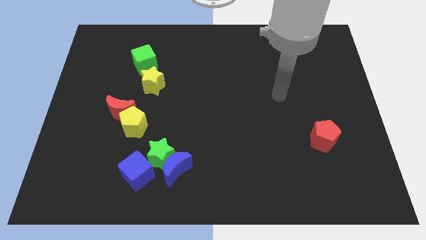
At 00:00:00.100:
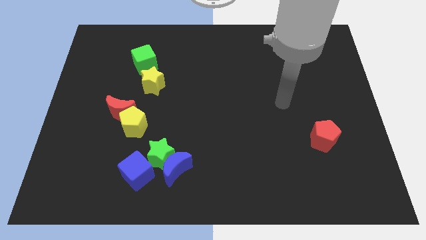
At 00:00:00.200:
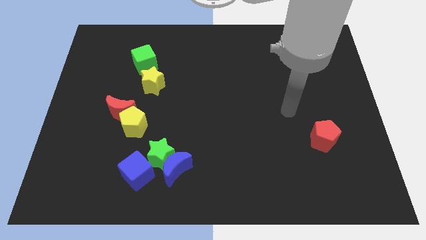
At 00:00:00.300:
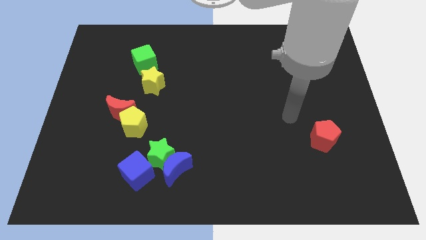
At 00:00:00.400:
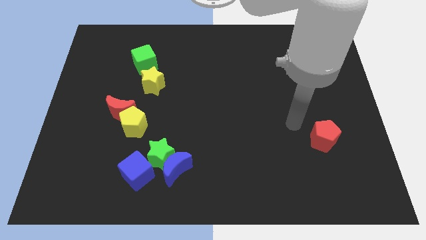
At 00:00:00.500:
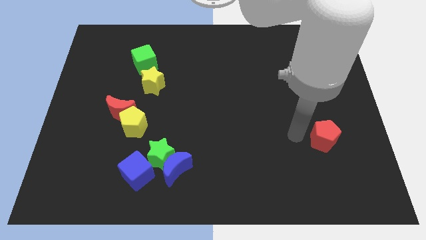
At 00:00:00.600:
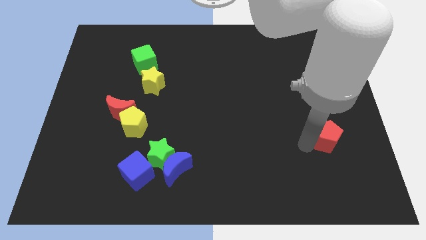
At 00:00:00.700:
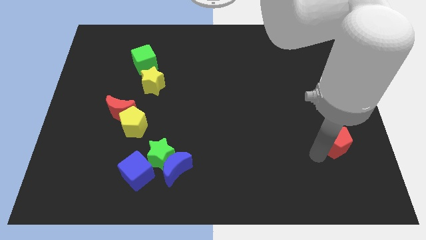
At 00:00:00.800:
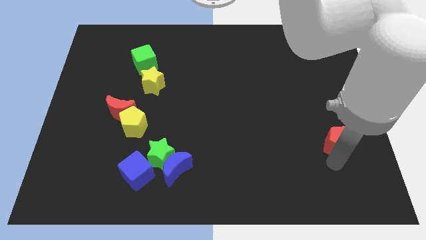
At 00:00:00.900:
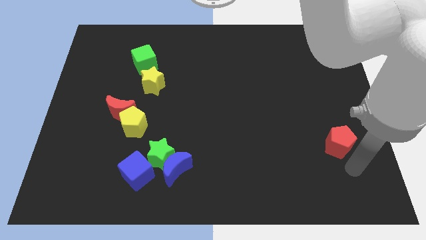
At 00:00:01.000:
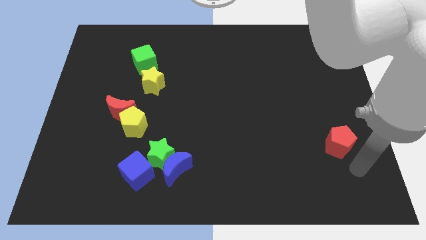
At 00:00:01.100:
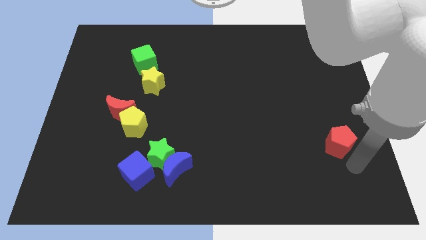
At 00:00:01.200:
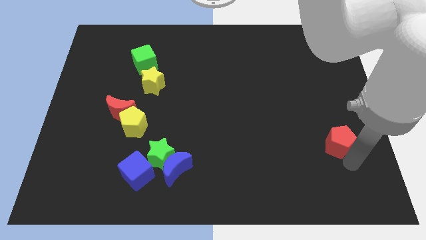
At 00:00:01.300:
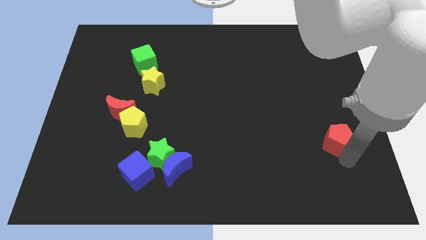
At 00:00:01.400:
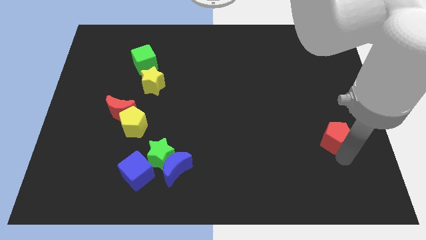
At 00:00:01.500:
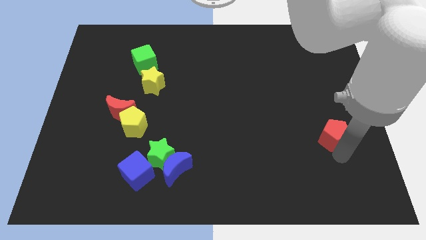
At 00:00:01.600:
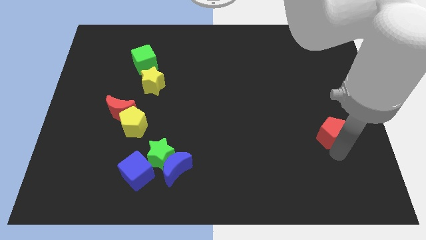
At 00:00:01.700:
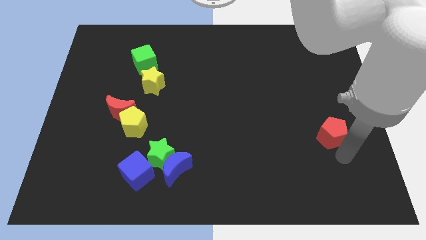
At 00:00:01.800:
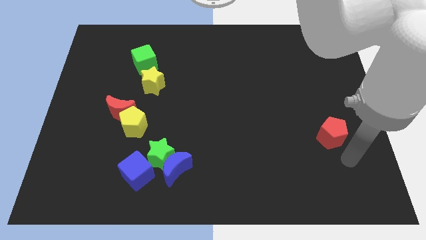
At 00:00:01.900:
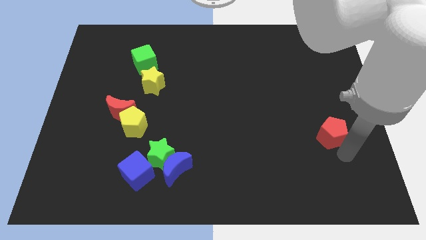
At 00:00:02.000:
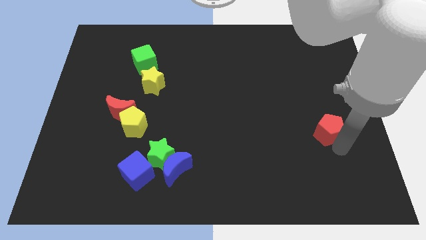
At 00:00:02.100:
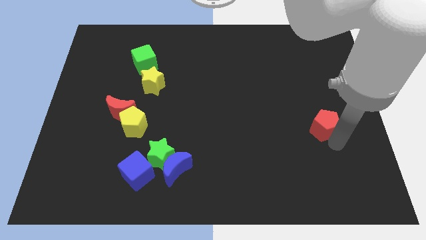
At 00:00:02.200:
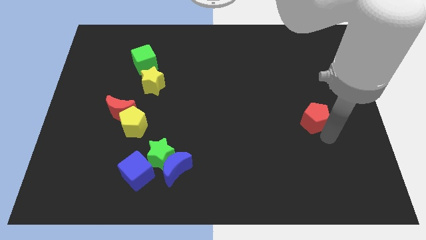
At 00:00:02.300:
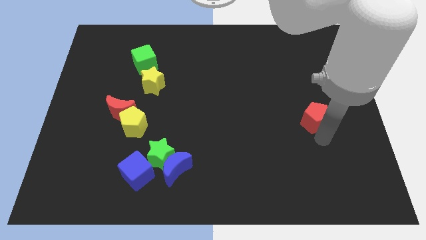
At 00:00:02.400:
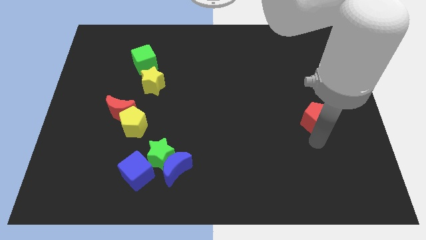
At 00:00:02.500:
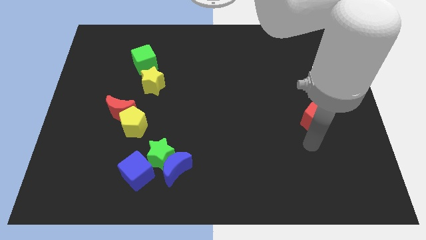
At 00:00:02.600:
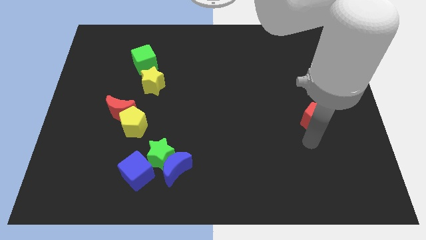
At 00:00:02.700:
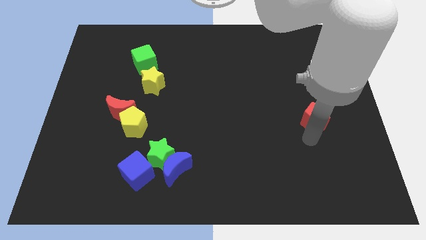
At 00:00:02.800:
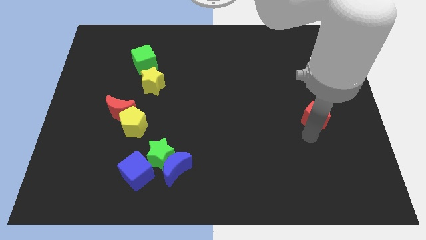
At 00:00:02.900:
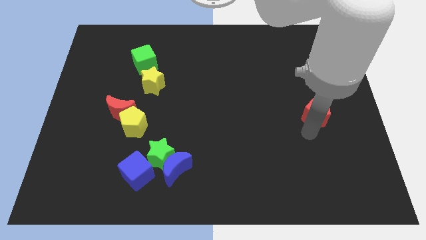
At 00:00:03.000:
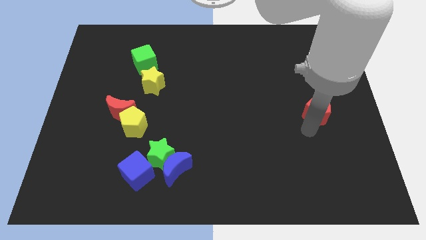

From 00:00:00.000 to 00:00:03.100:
move the red pentagon somewhat upwards

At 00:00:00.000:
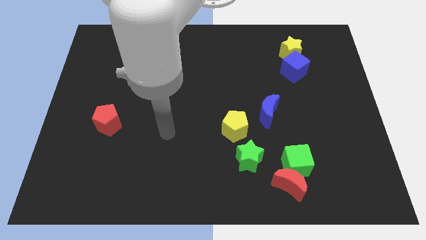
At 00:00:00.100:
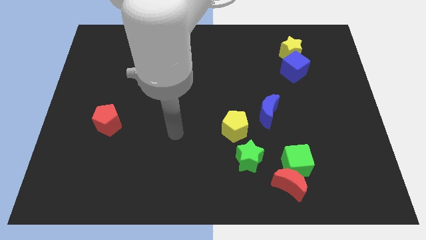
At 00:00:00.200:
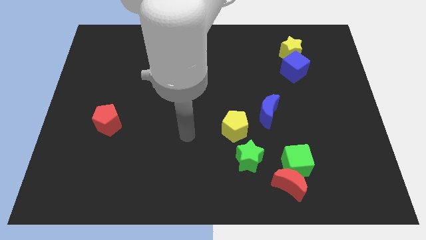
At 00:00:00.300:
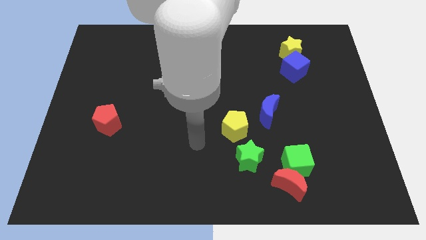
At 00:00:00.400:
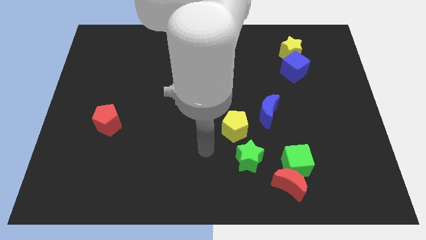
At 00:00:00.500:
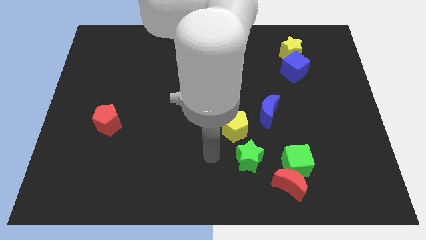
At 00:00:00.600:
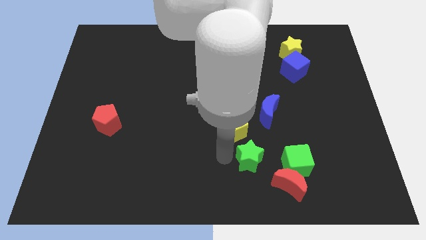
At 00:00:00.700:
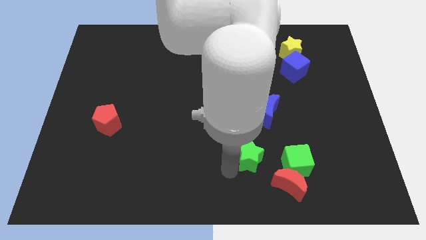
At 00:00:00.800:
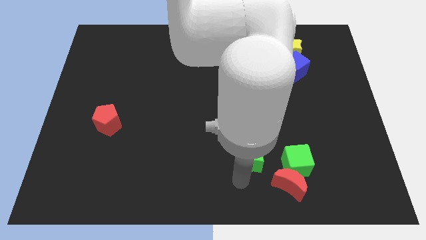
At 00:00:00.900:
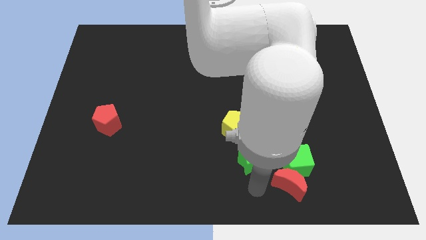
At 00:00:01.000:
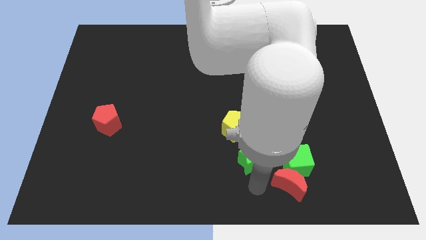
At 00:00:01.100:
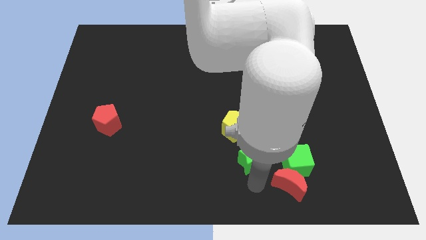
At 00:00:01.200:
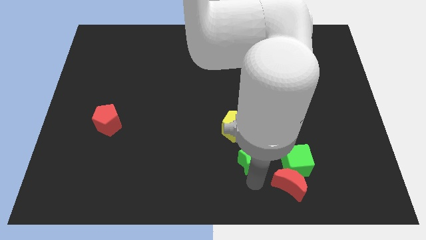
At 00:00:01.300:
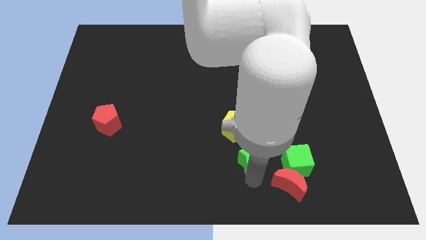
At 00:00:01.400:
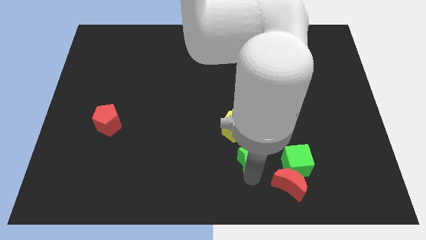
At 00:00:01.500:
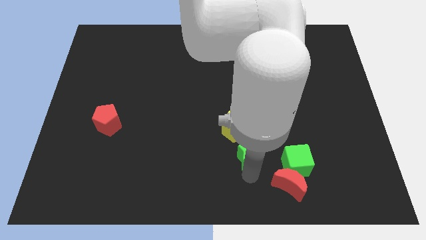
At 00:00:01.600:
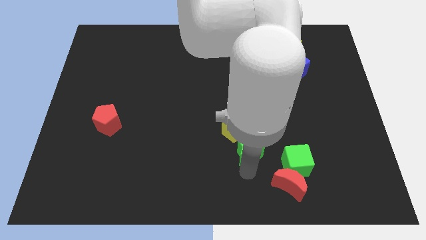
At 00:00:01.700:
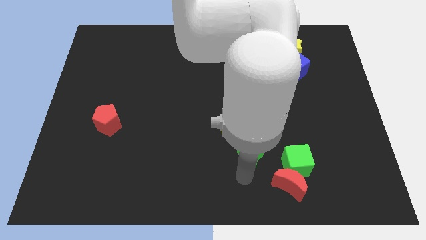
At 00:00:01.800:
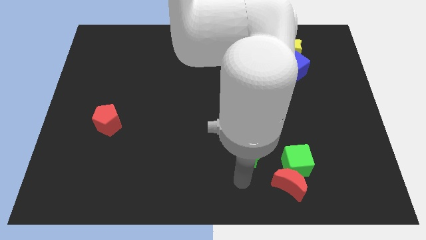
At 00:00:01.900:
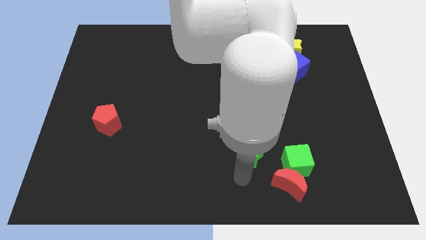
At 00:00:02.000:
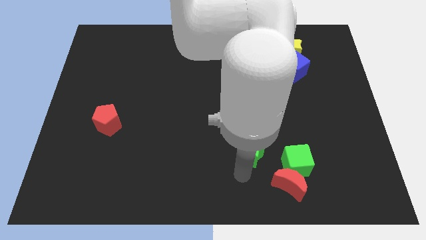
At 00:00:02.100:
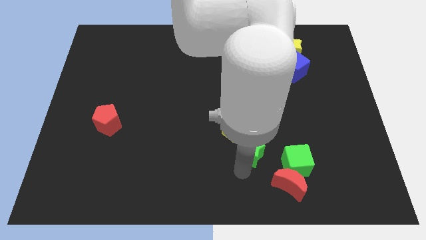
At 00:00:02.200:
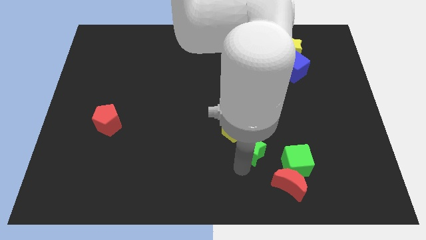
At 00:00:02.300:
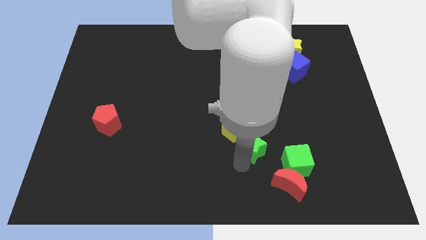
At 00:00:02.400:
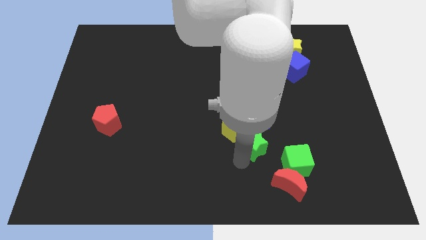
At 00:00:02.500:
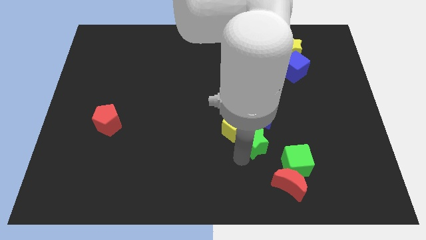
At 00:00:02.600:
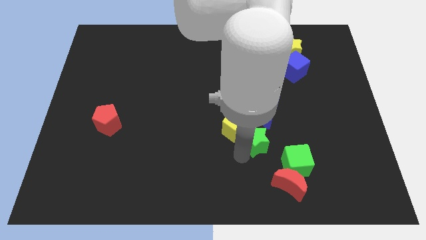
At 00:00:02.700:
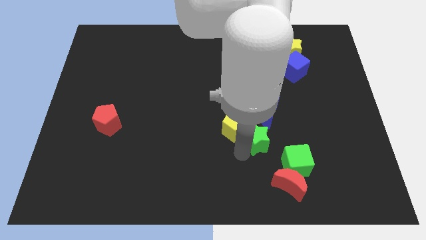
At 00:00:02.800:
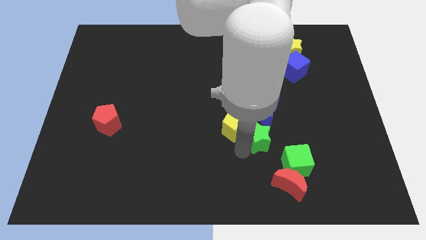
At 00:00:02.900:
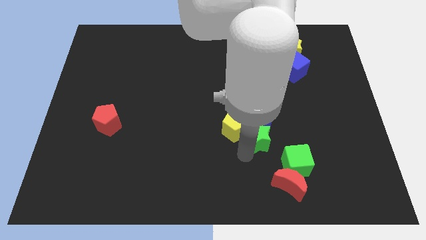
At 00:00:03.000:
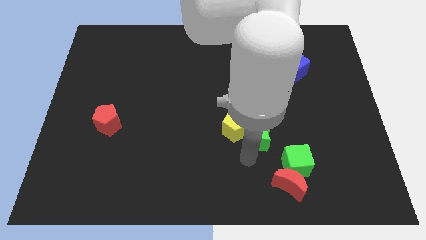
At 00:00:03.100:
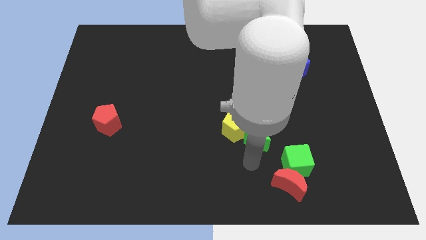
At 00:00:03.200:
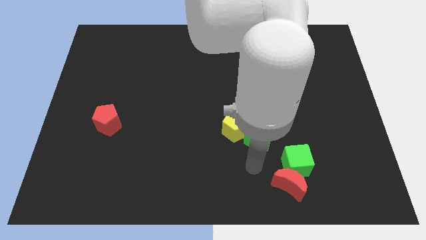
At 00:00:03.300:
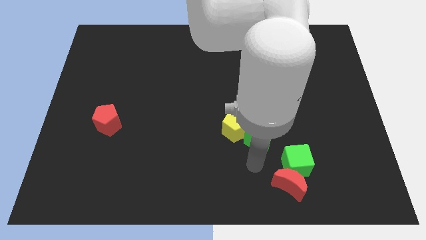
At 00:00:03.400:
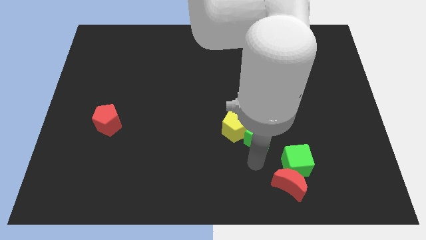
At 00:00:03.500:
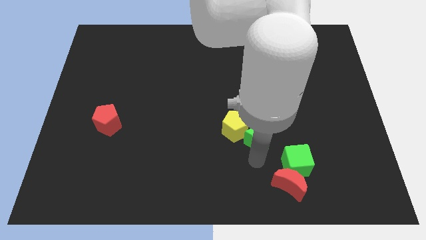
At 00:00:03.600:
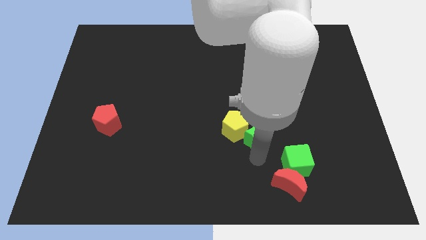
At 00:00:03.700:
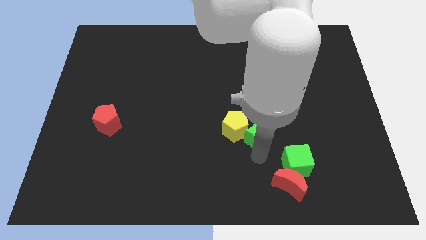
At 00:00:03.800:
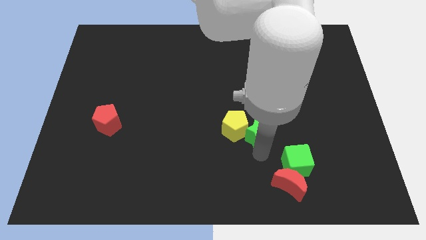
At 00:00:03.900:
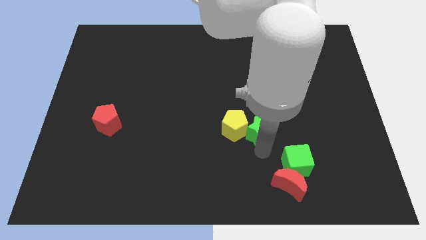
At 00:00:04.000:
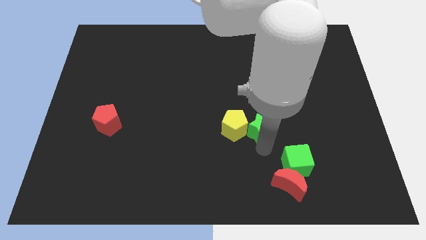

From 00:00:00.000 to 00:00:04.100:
slightly push the green star upwards

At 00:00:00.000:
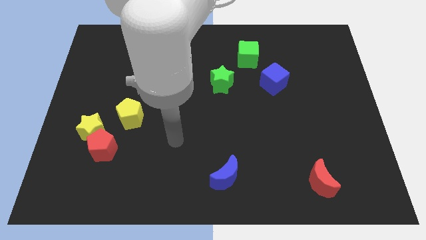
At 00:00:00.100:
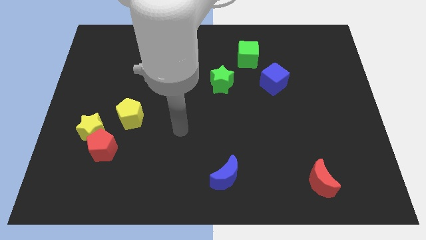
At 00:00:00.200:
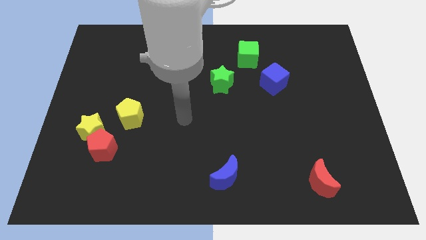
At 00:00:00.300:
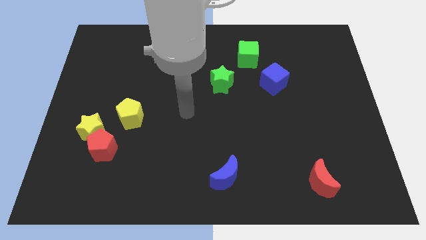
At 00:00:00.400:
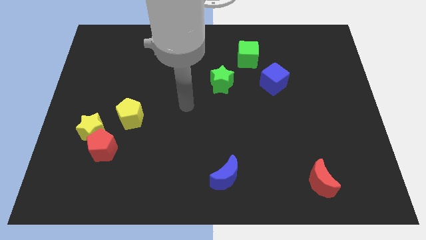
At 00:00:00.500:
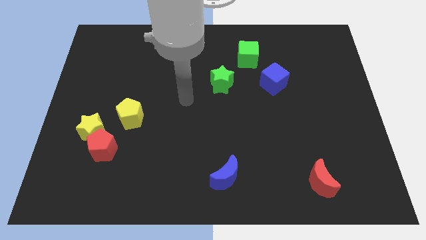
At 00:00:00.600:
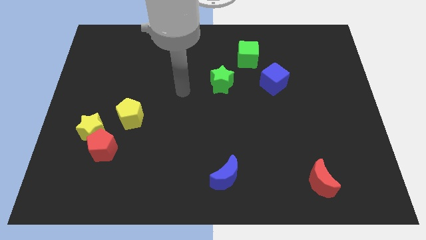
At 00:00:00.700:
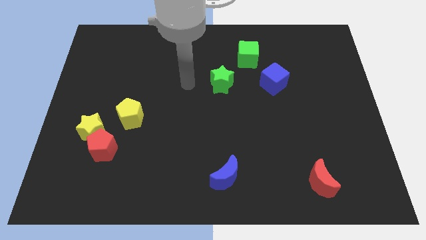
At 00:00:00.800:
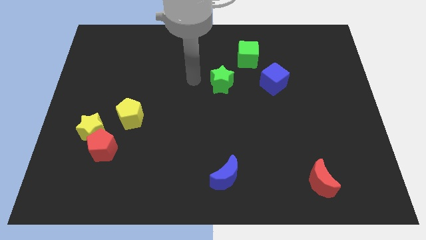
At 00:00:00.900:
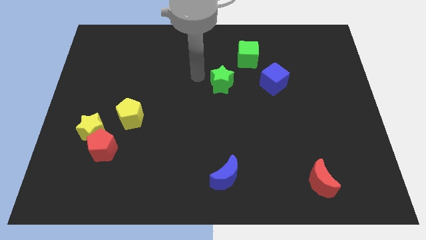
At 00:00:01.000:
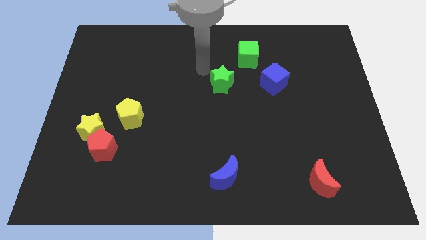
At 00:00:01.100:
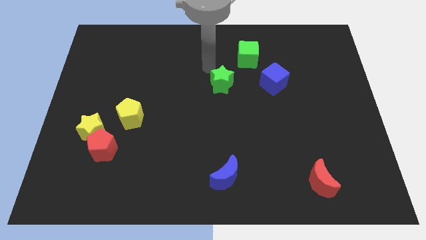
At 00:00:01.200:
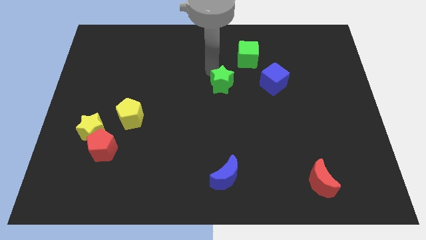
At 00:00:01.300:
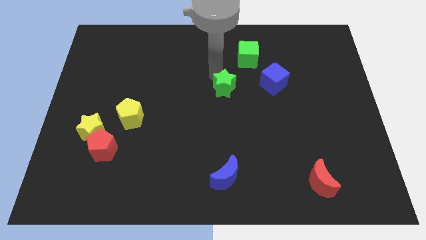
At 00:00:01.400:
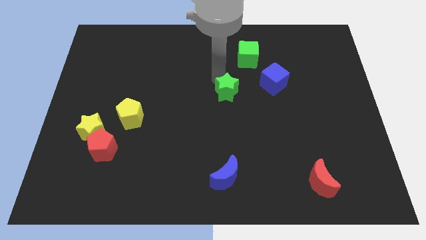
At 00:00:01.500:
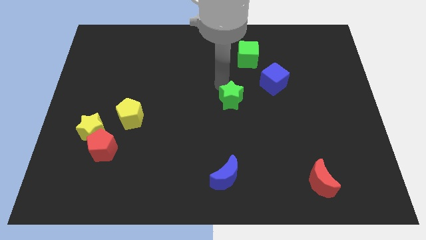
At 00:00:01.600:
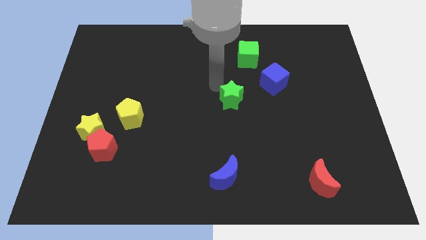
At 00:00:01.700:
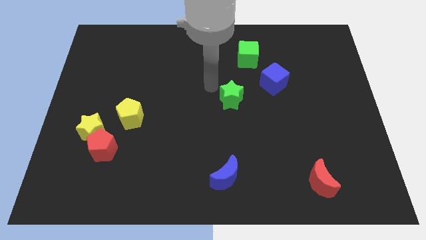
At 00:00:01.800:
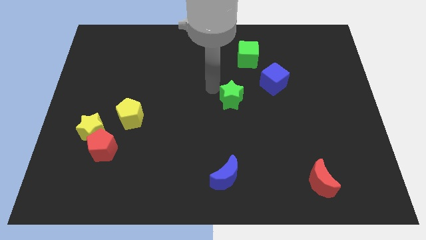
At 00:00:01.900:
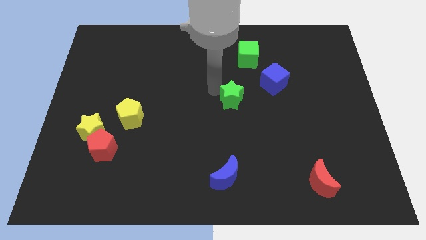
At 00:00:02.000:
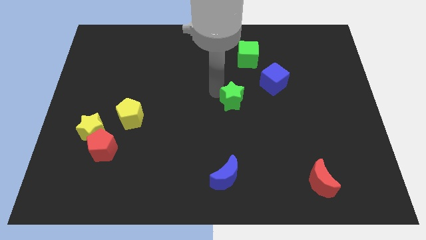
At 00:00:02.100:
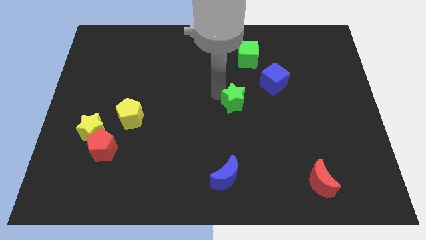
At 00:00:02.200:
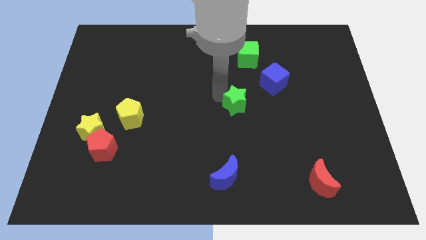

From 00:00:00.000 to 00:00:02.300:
push the green star down and then to the right a bit
